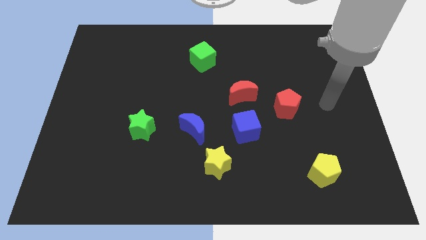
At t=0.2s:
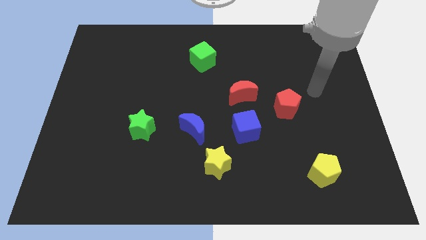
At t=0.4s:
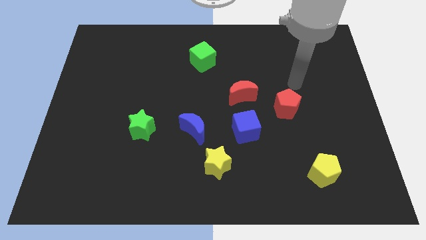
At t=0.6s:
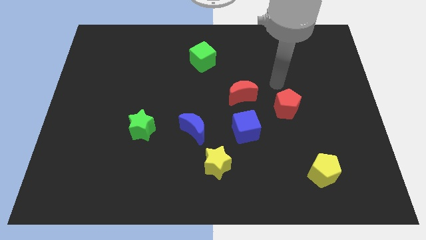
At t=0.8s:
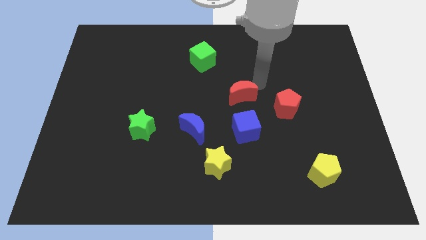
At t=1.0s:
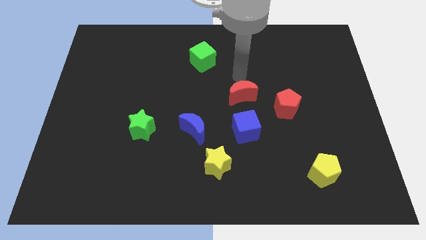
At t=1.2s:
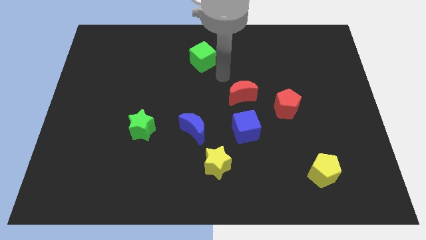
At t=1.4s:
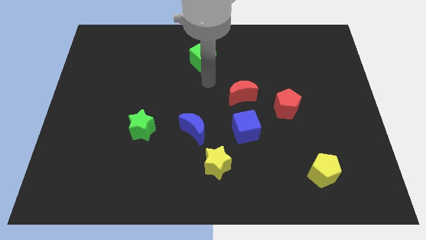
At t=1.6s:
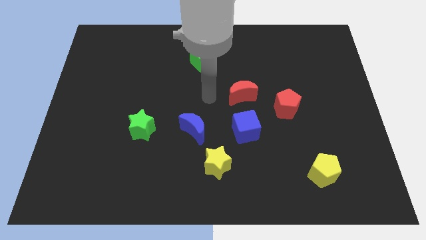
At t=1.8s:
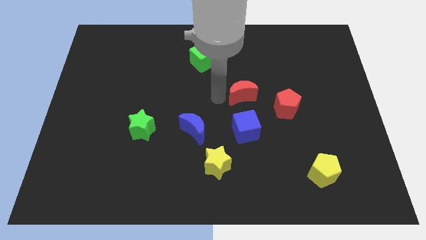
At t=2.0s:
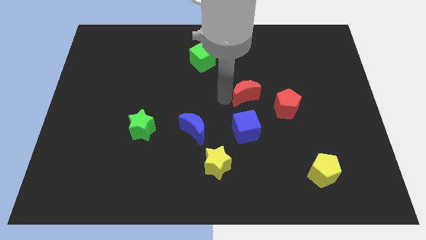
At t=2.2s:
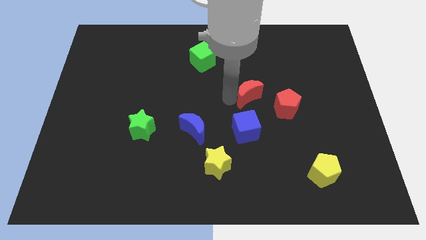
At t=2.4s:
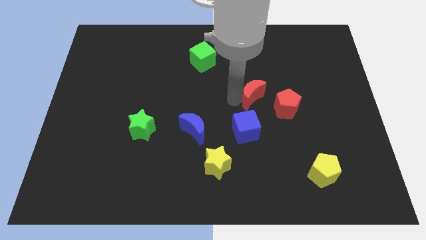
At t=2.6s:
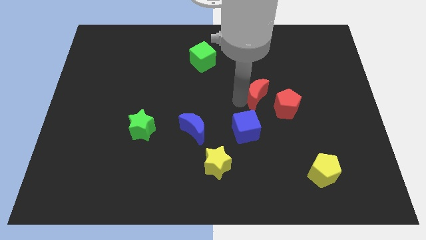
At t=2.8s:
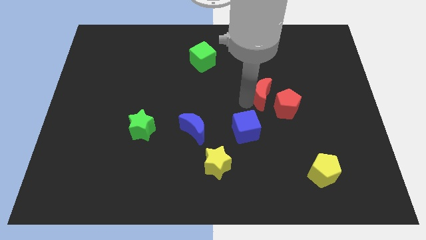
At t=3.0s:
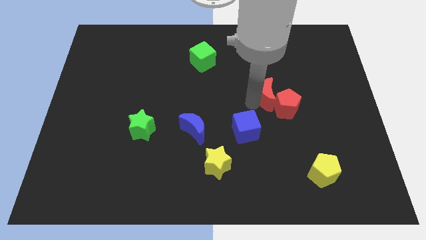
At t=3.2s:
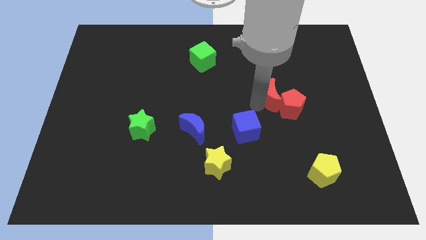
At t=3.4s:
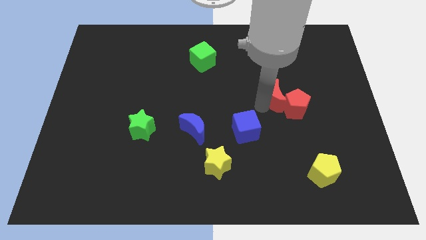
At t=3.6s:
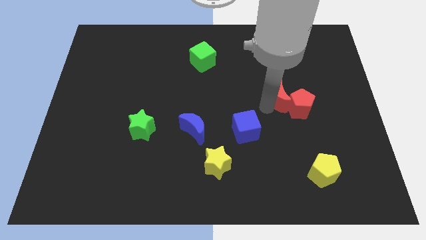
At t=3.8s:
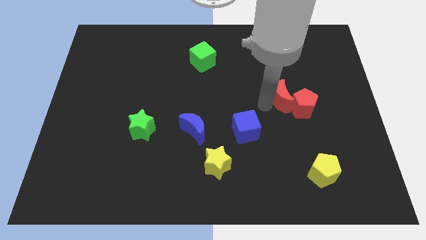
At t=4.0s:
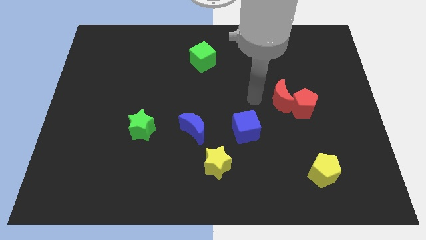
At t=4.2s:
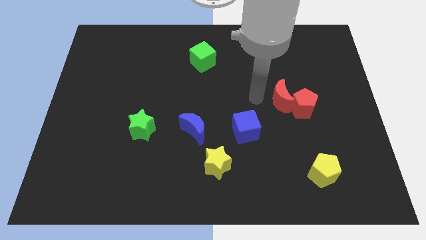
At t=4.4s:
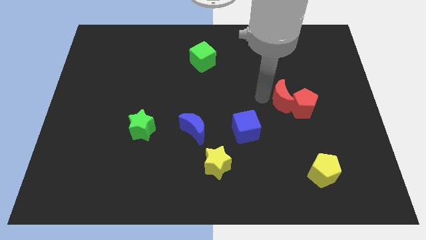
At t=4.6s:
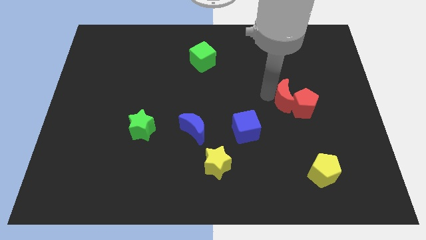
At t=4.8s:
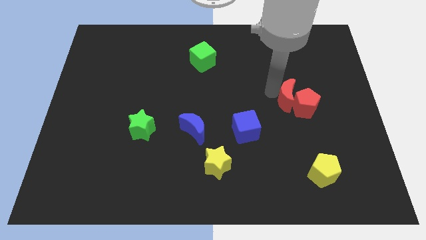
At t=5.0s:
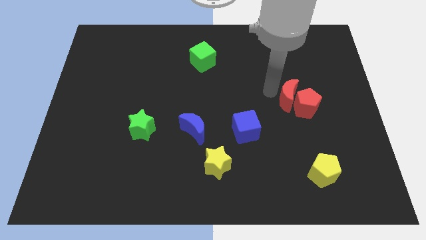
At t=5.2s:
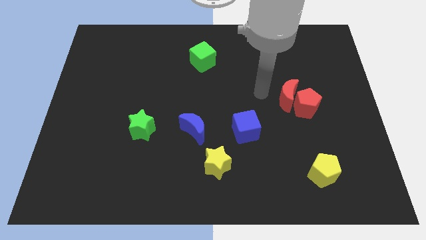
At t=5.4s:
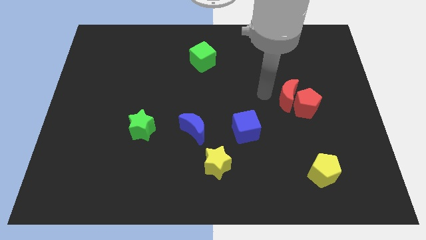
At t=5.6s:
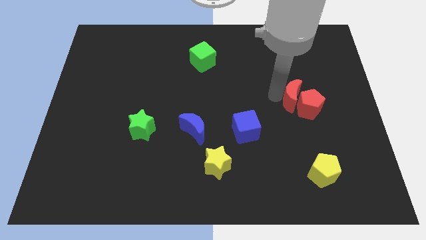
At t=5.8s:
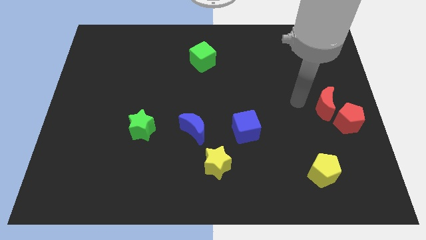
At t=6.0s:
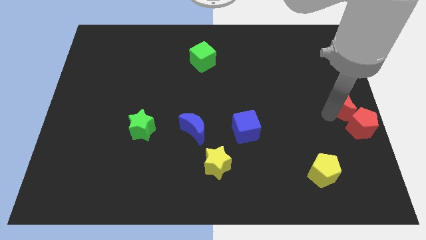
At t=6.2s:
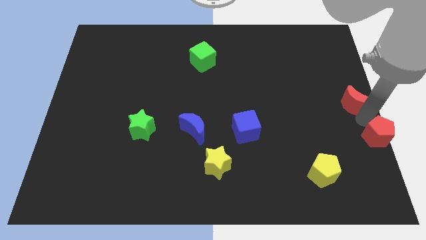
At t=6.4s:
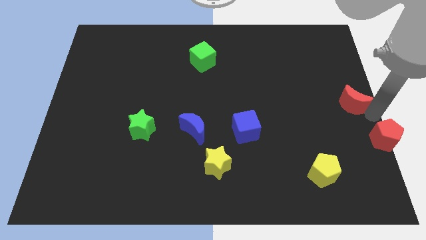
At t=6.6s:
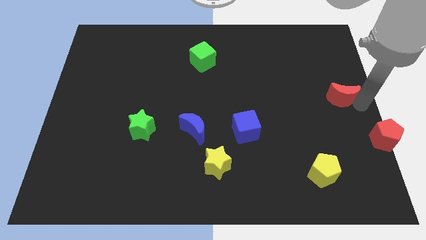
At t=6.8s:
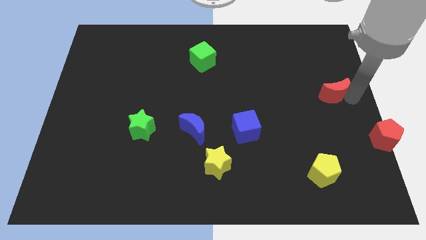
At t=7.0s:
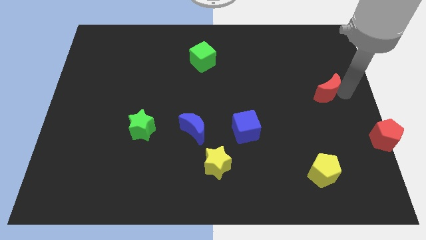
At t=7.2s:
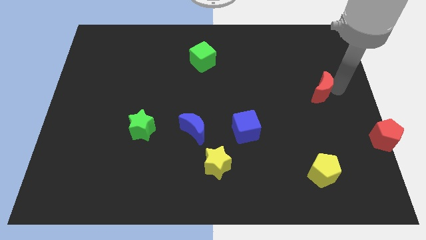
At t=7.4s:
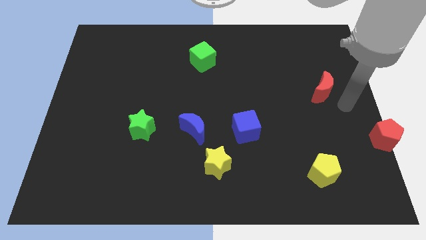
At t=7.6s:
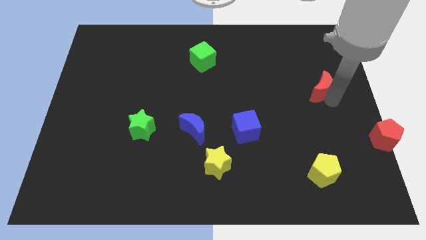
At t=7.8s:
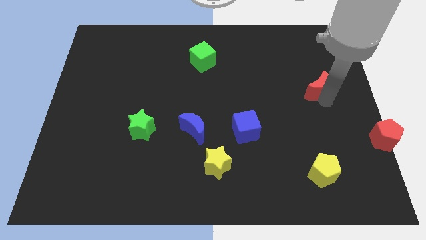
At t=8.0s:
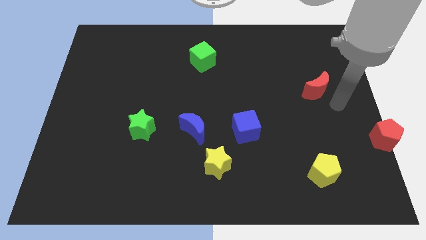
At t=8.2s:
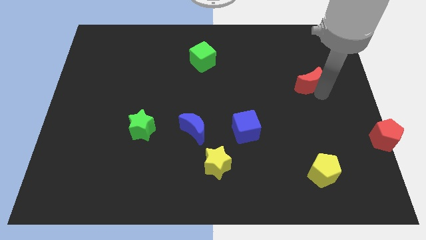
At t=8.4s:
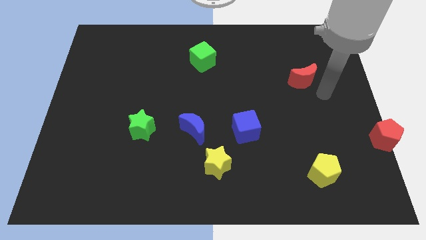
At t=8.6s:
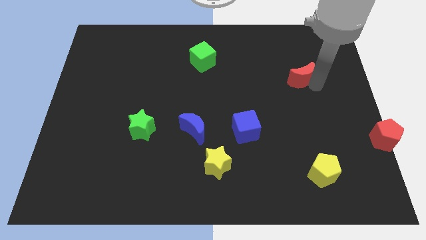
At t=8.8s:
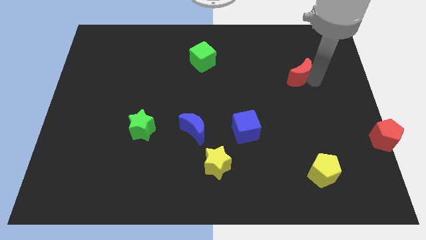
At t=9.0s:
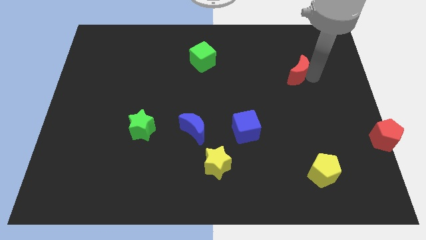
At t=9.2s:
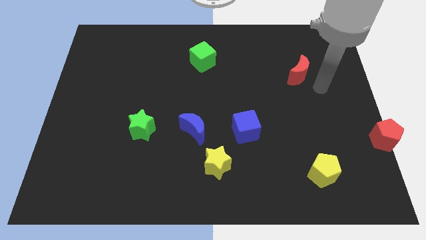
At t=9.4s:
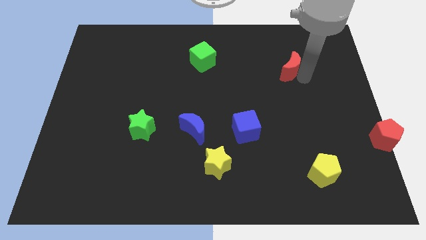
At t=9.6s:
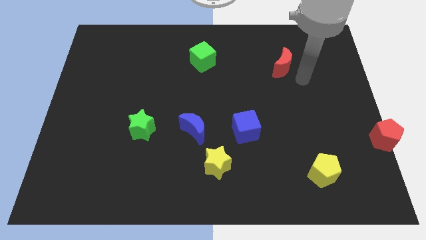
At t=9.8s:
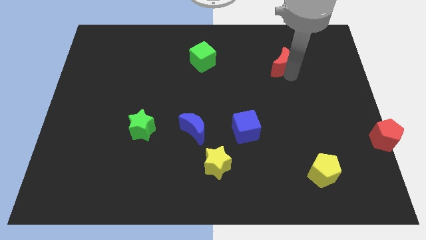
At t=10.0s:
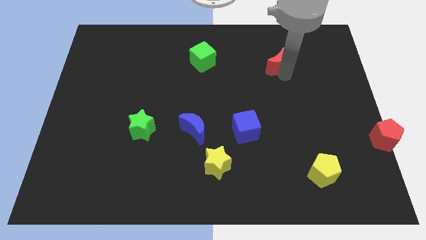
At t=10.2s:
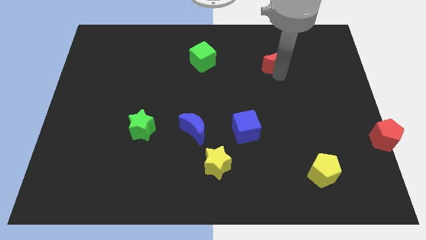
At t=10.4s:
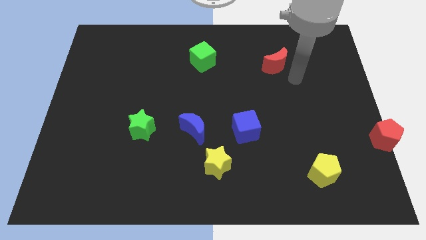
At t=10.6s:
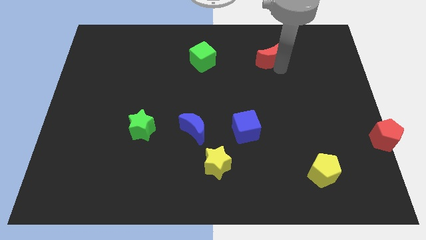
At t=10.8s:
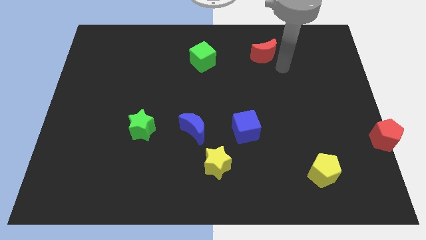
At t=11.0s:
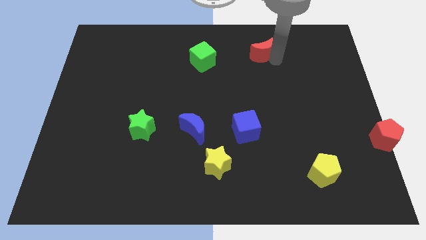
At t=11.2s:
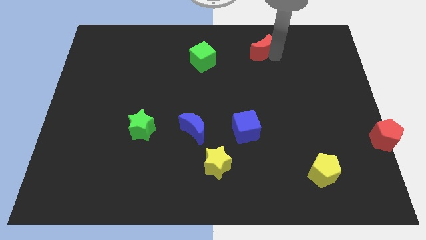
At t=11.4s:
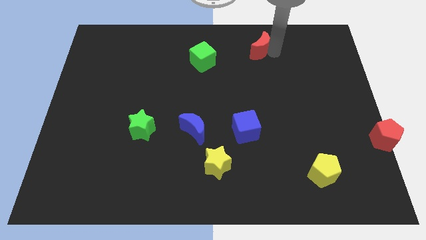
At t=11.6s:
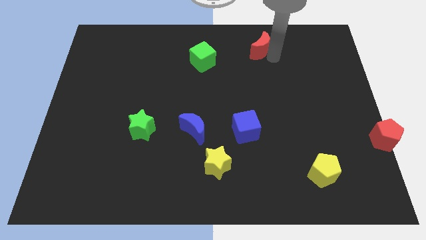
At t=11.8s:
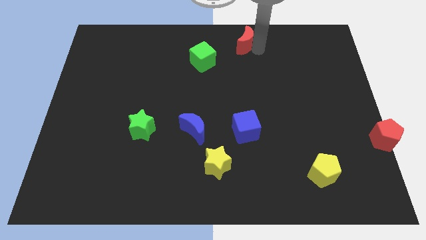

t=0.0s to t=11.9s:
push the red moon to the top
